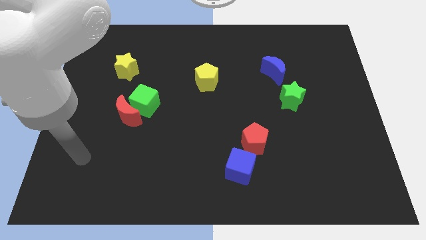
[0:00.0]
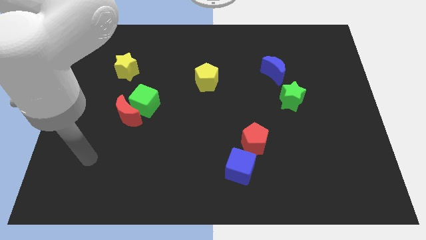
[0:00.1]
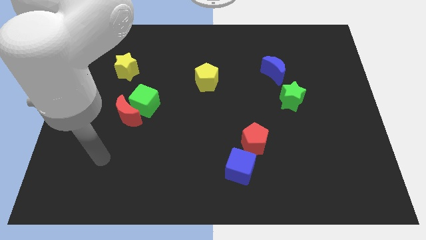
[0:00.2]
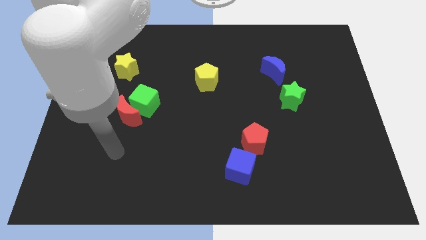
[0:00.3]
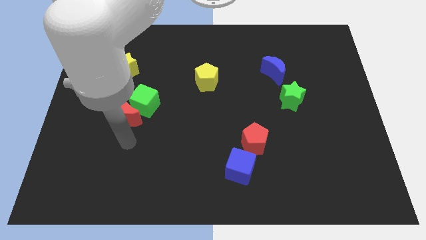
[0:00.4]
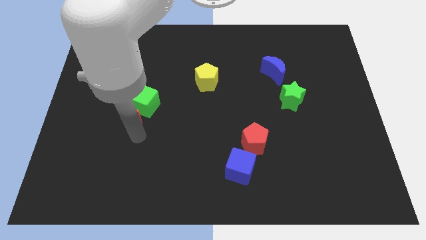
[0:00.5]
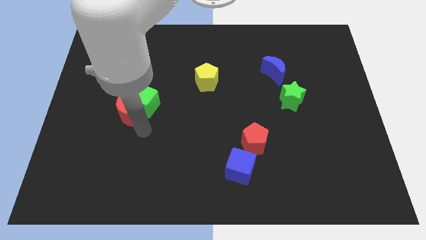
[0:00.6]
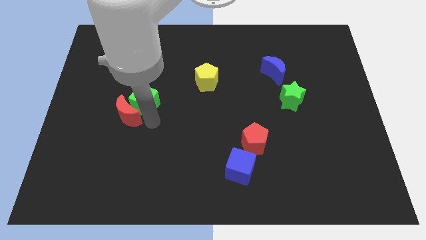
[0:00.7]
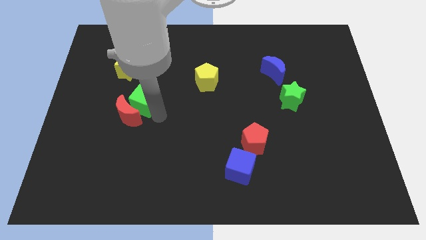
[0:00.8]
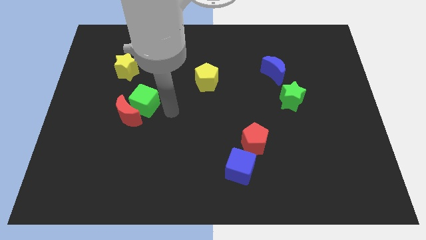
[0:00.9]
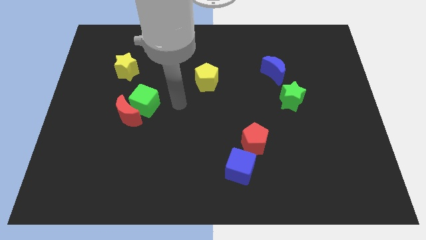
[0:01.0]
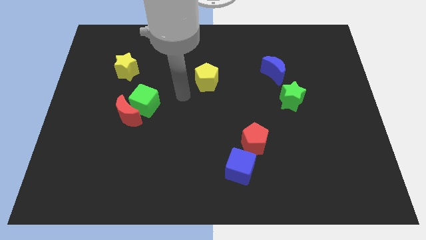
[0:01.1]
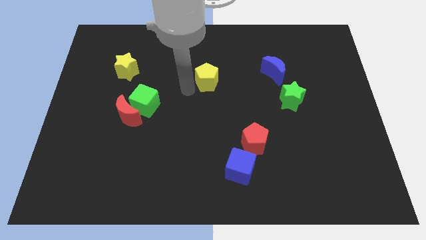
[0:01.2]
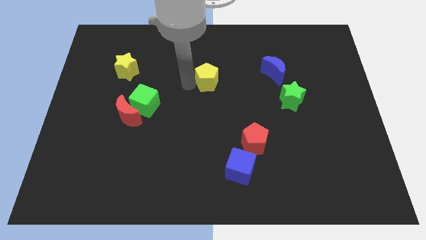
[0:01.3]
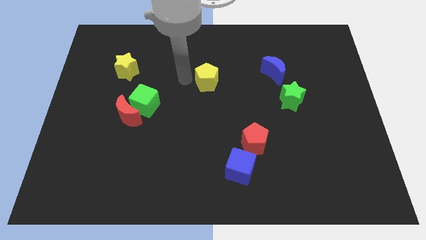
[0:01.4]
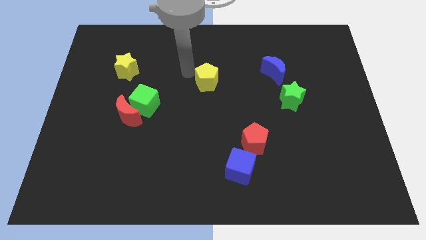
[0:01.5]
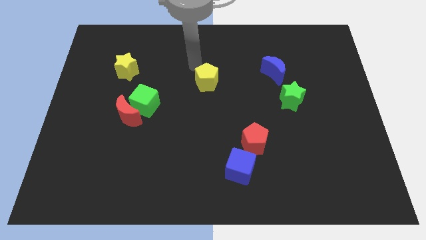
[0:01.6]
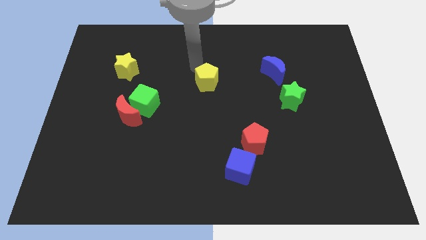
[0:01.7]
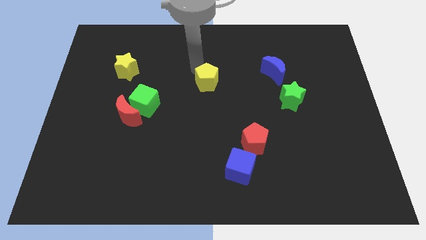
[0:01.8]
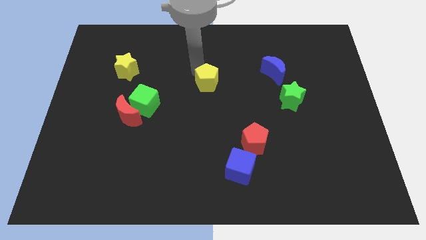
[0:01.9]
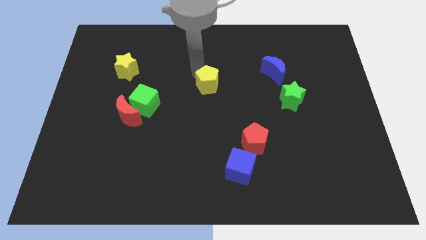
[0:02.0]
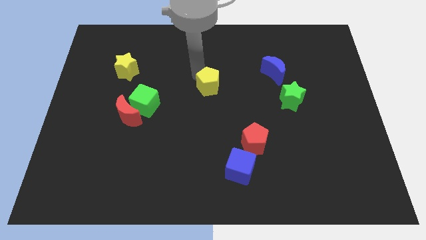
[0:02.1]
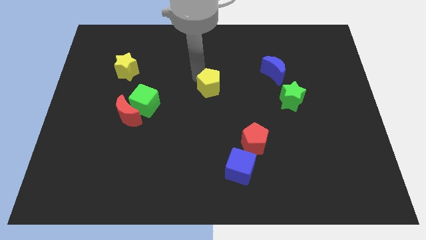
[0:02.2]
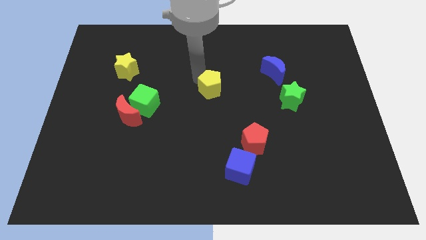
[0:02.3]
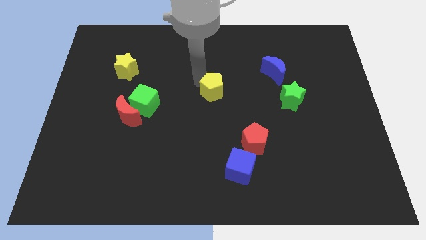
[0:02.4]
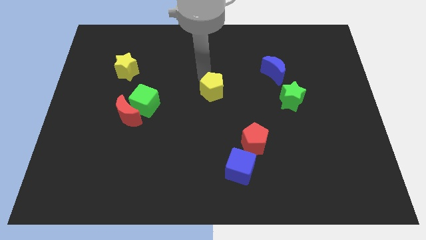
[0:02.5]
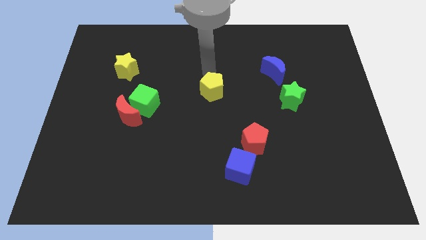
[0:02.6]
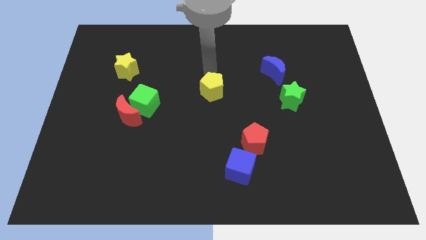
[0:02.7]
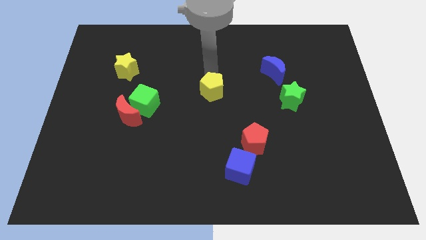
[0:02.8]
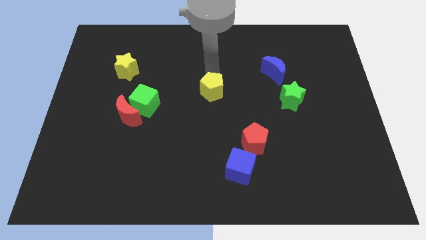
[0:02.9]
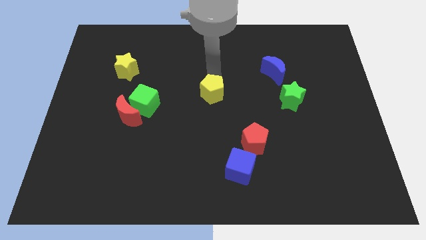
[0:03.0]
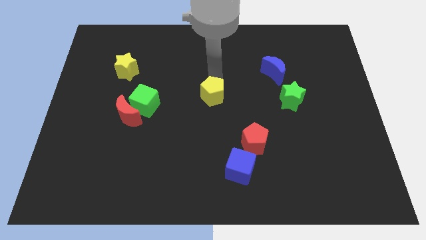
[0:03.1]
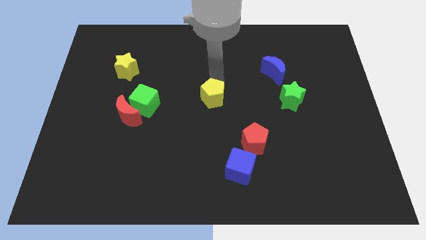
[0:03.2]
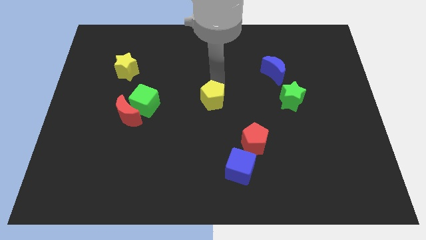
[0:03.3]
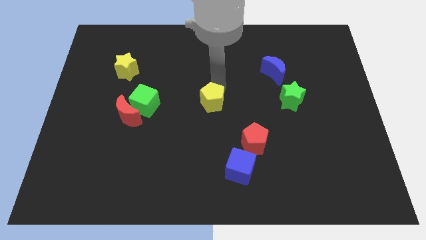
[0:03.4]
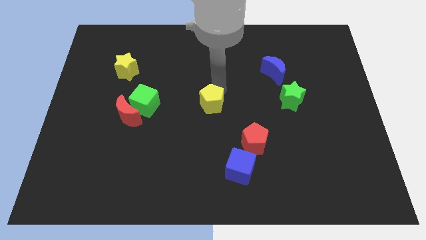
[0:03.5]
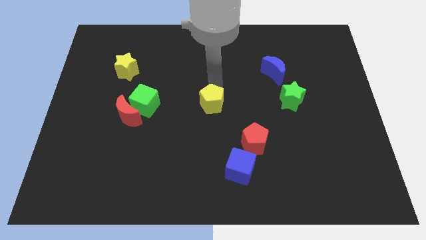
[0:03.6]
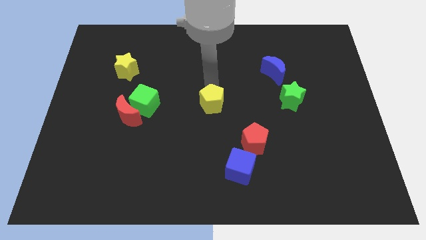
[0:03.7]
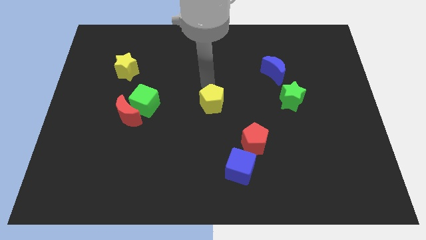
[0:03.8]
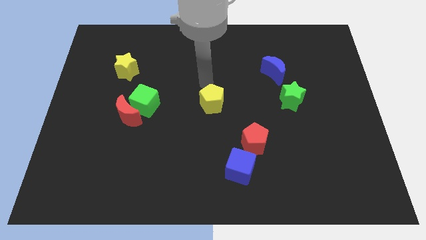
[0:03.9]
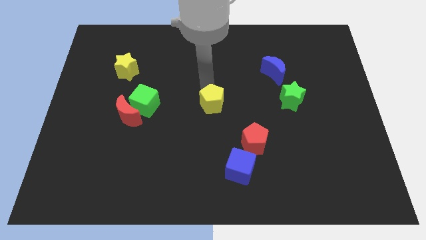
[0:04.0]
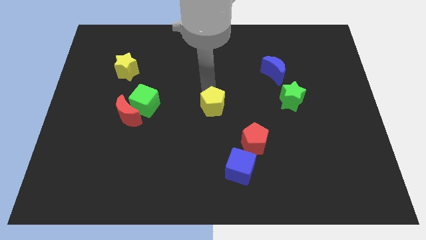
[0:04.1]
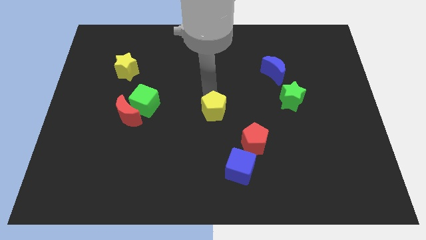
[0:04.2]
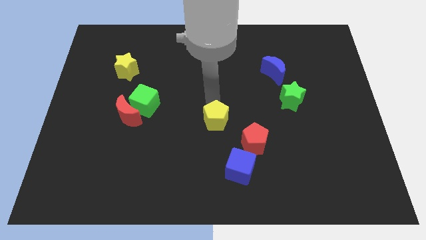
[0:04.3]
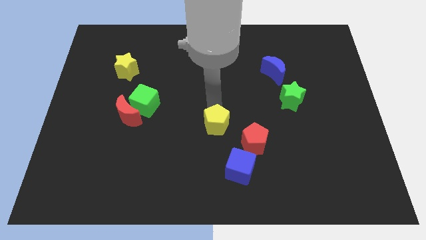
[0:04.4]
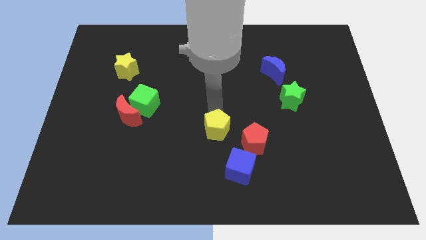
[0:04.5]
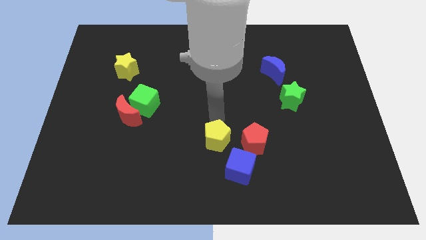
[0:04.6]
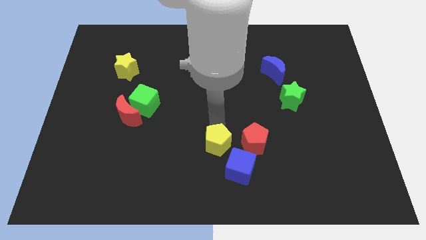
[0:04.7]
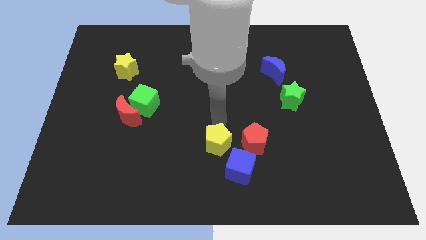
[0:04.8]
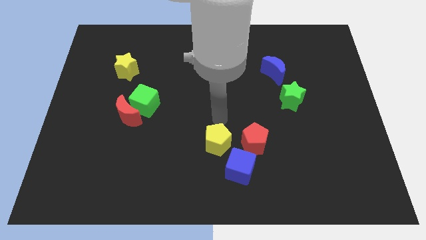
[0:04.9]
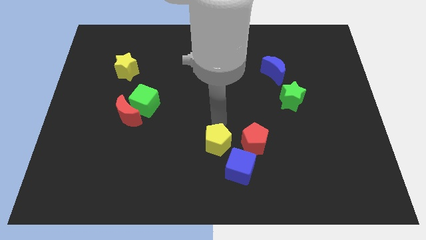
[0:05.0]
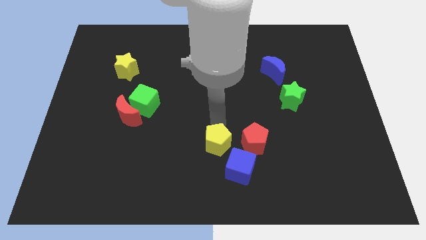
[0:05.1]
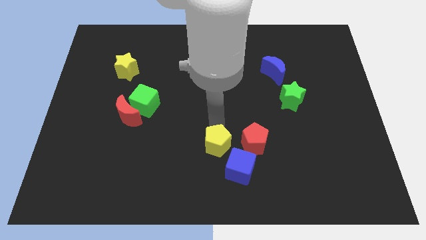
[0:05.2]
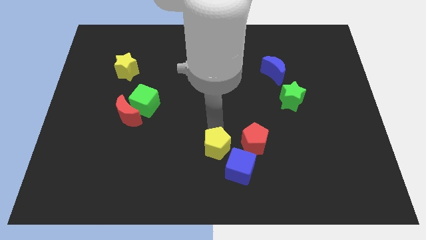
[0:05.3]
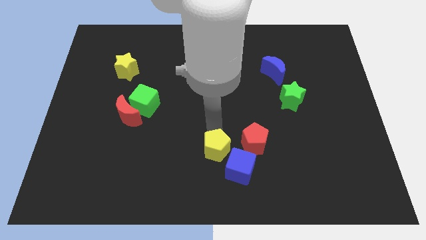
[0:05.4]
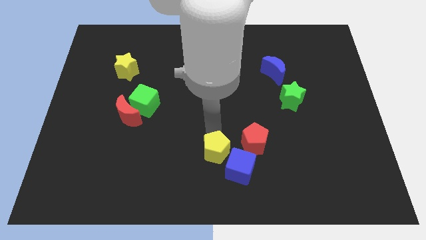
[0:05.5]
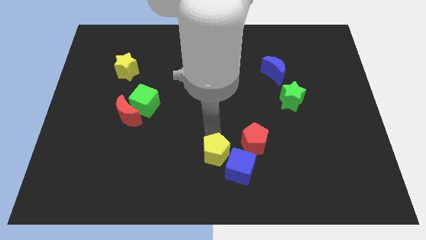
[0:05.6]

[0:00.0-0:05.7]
slide the yellow pentagon to the bottom
